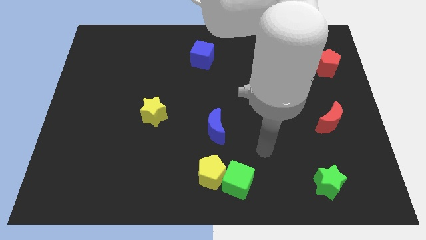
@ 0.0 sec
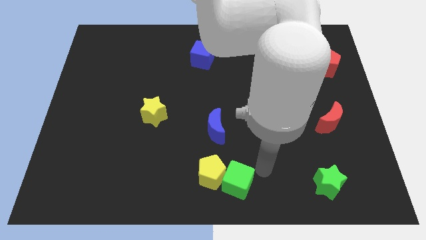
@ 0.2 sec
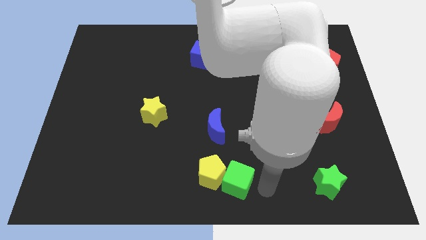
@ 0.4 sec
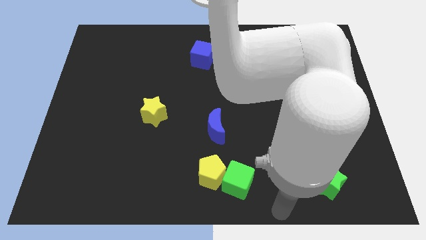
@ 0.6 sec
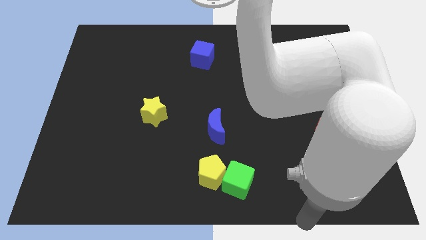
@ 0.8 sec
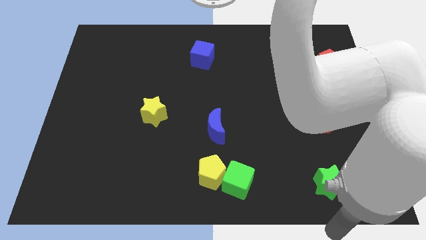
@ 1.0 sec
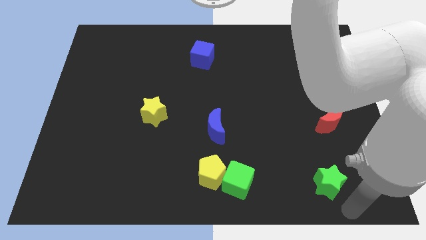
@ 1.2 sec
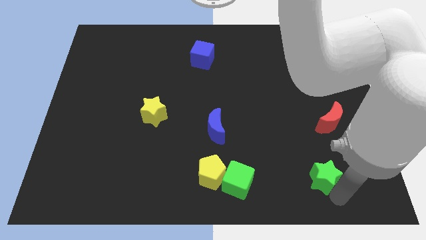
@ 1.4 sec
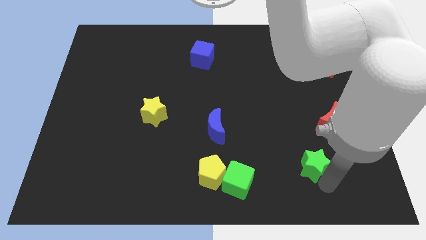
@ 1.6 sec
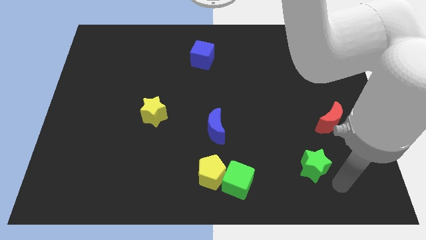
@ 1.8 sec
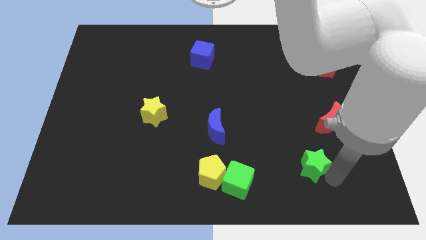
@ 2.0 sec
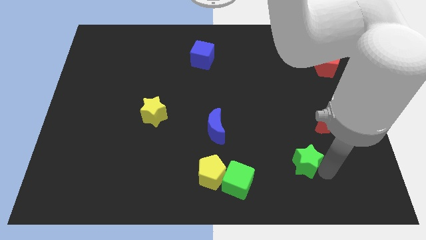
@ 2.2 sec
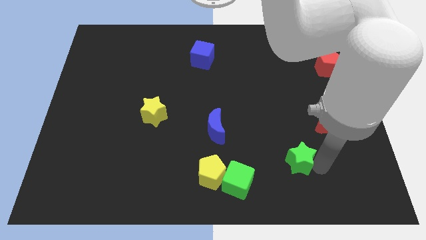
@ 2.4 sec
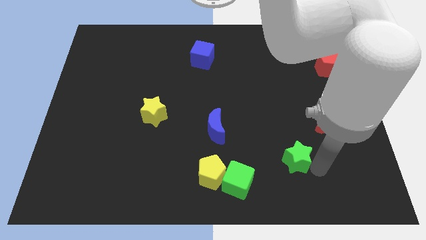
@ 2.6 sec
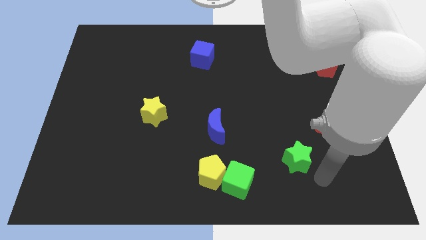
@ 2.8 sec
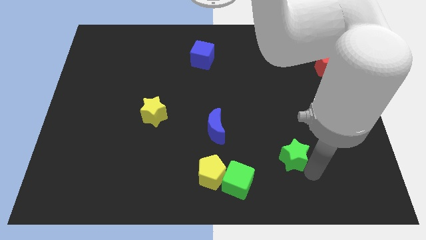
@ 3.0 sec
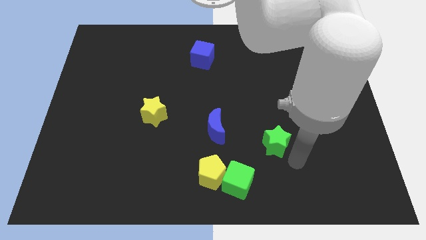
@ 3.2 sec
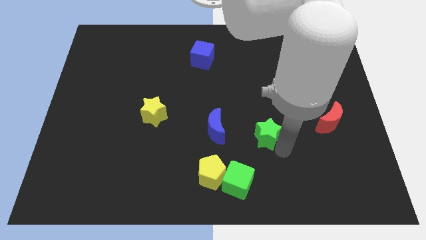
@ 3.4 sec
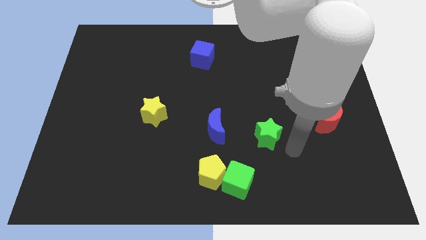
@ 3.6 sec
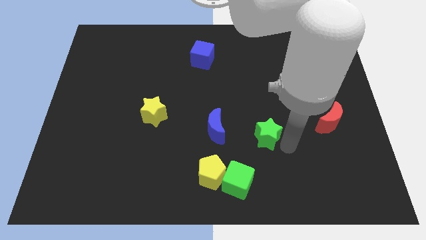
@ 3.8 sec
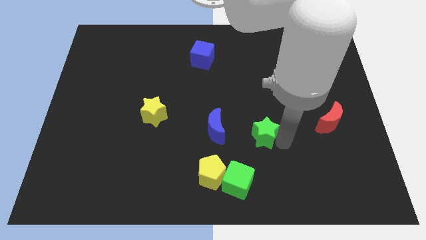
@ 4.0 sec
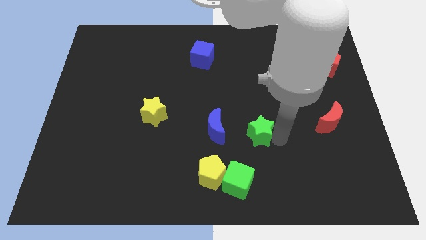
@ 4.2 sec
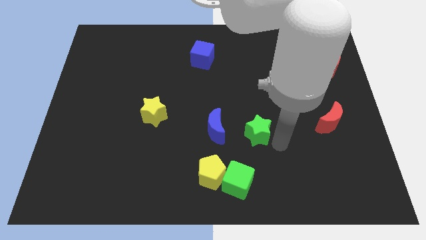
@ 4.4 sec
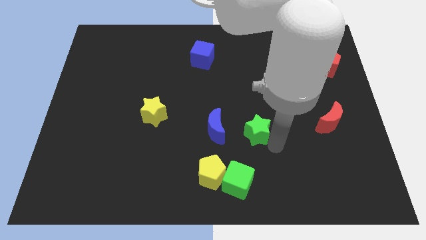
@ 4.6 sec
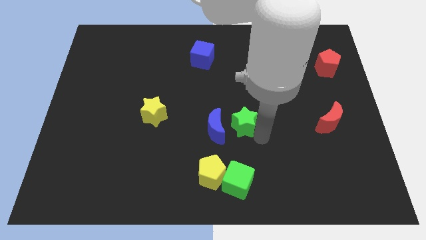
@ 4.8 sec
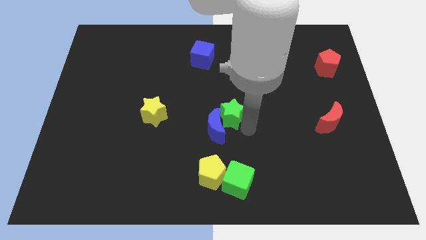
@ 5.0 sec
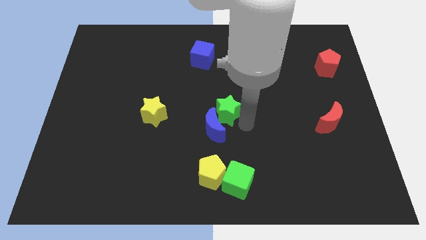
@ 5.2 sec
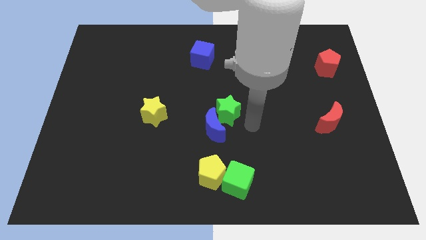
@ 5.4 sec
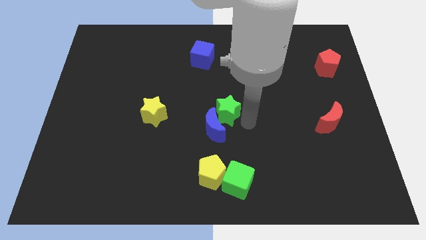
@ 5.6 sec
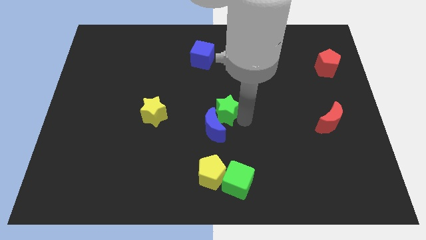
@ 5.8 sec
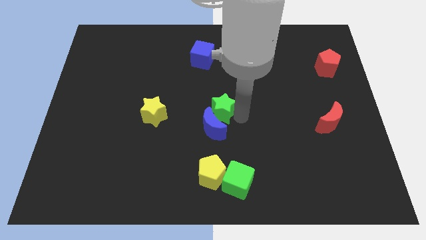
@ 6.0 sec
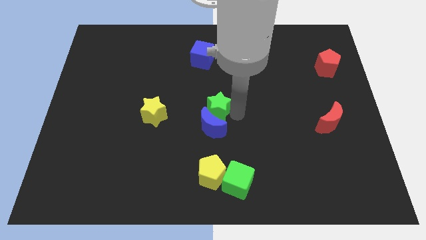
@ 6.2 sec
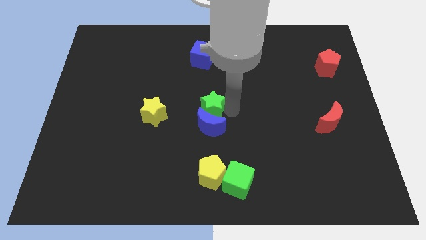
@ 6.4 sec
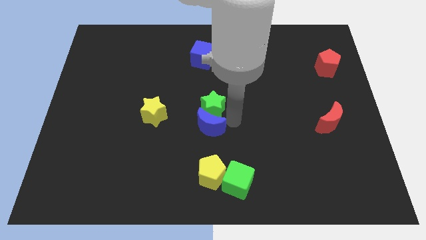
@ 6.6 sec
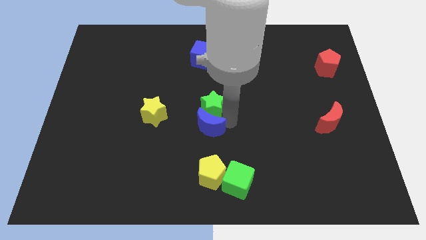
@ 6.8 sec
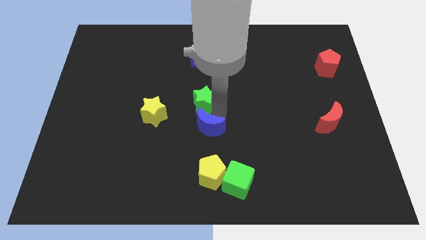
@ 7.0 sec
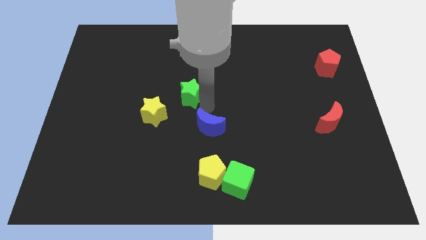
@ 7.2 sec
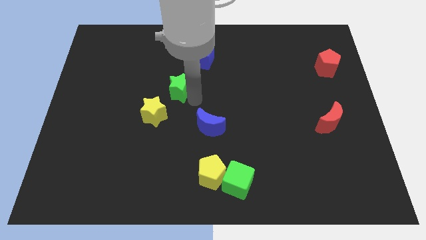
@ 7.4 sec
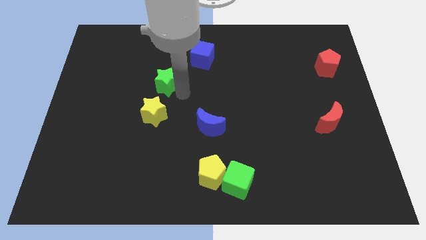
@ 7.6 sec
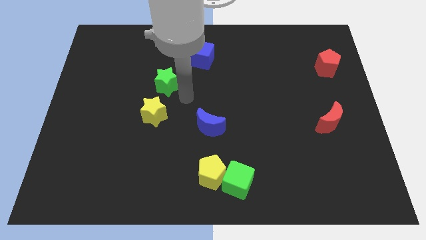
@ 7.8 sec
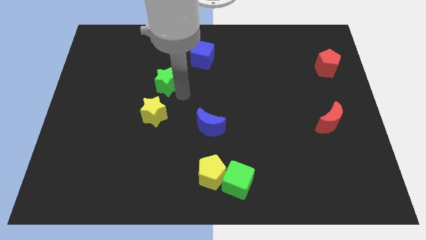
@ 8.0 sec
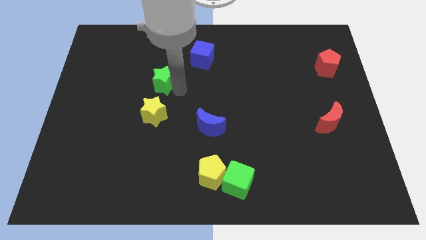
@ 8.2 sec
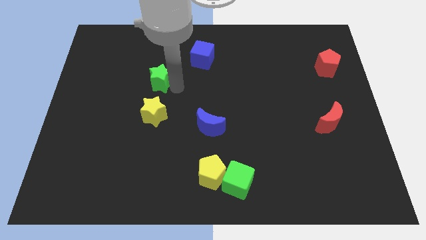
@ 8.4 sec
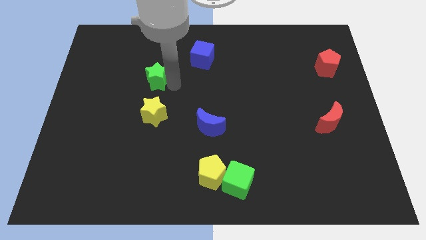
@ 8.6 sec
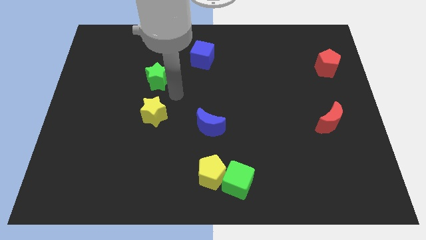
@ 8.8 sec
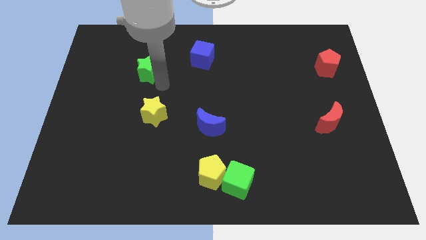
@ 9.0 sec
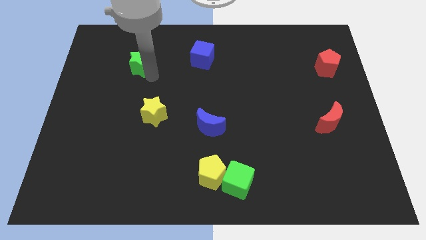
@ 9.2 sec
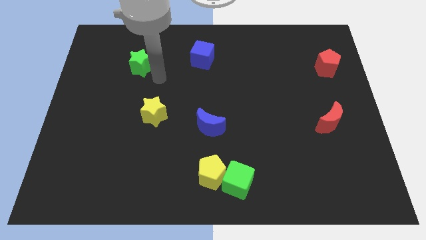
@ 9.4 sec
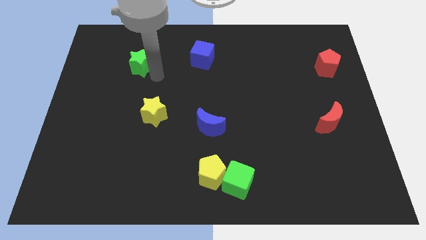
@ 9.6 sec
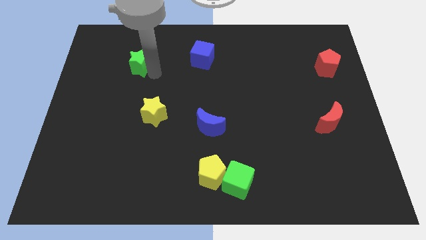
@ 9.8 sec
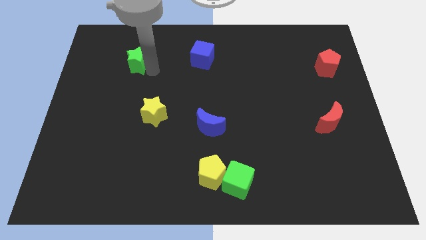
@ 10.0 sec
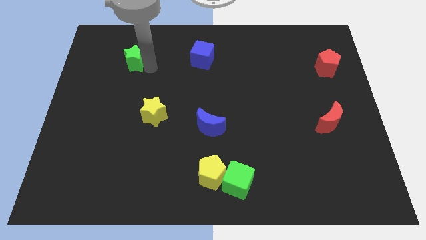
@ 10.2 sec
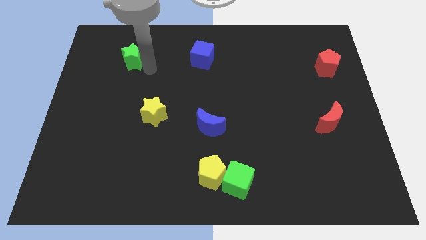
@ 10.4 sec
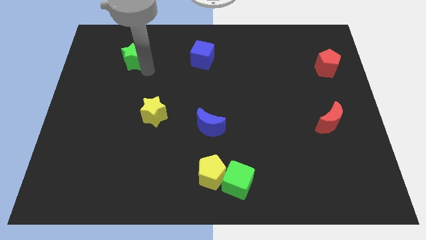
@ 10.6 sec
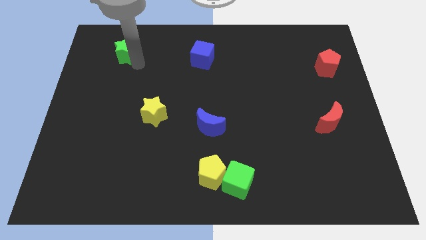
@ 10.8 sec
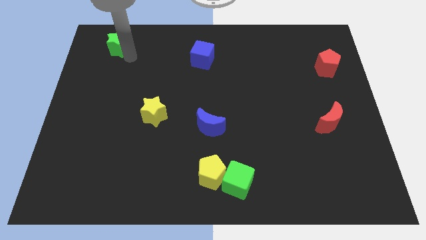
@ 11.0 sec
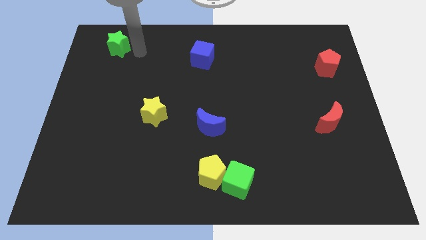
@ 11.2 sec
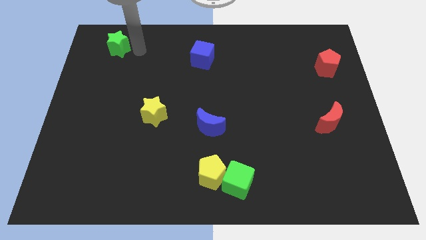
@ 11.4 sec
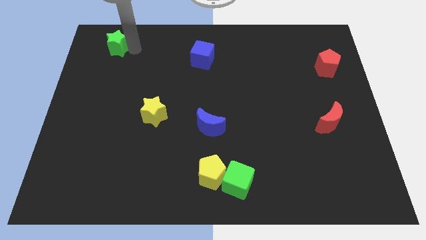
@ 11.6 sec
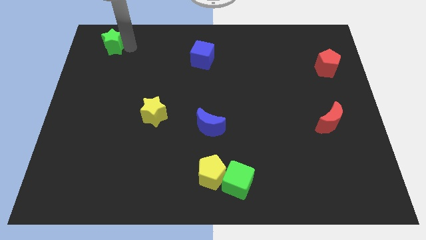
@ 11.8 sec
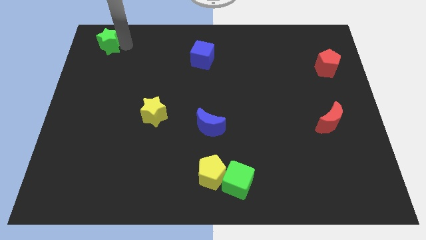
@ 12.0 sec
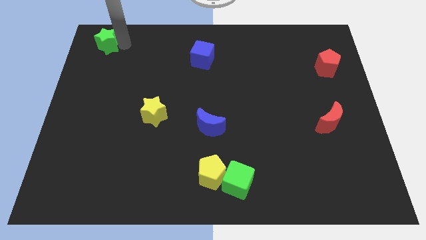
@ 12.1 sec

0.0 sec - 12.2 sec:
move the green star to the upper left corner

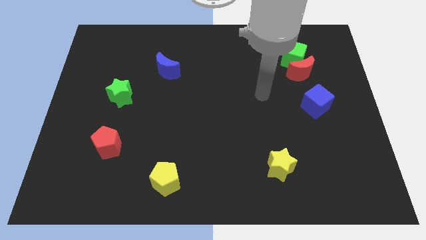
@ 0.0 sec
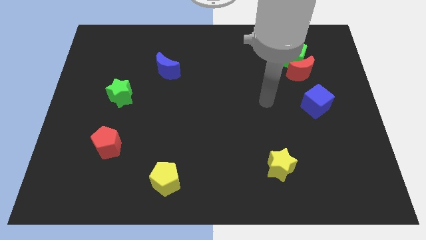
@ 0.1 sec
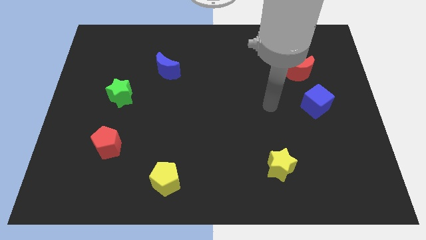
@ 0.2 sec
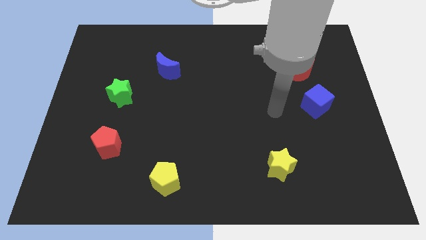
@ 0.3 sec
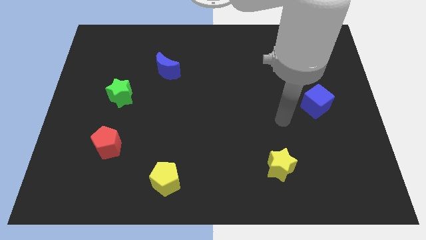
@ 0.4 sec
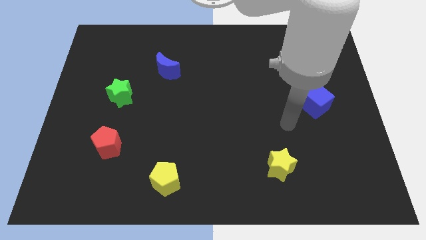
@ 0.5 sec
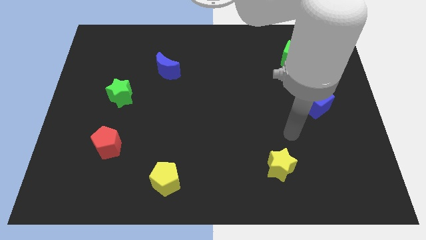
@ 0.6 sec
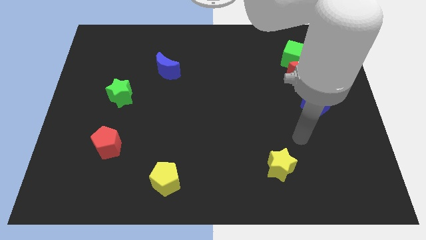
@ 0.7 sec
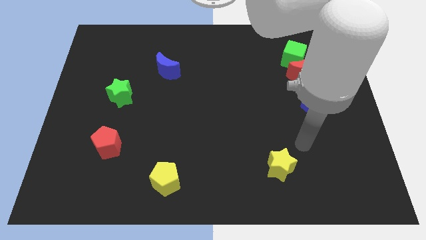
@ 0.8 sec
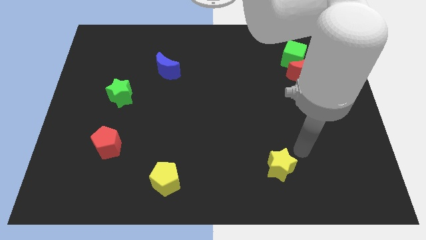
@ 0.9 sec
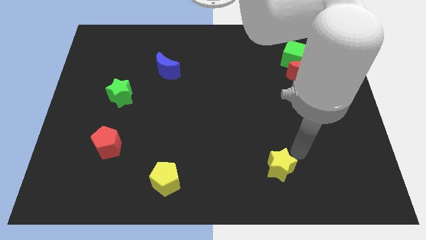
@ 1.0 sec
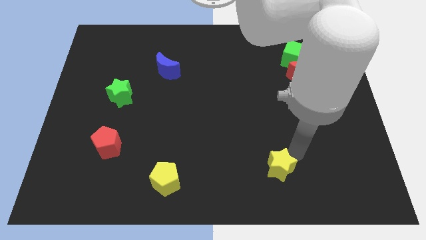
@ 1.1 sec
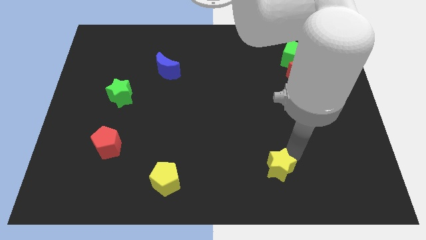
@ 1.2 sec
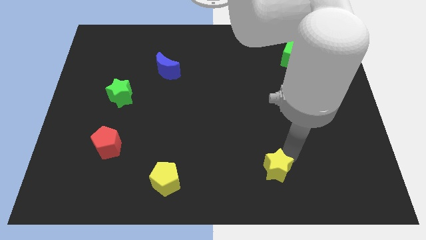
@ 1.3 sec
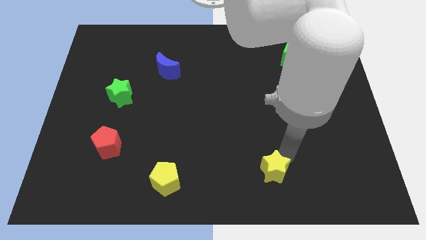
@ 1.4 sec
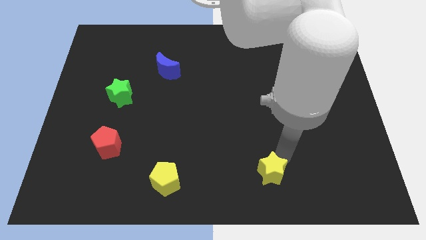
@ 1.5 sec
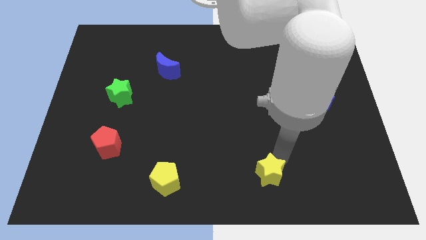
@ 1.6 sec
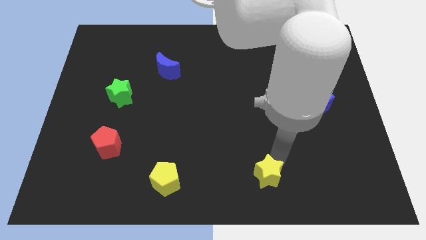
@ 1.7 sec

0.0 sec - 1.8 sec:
move the yellow star to the bottom
